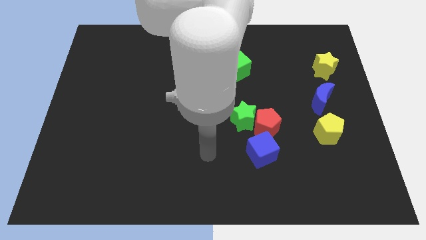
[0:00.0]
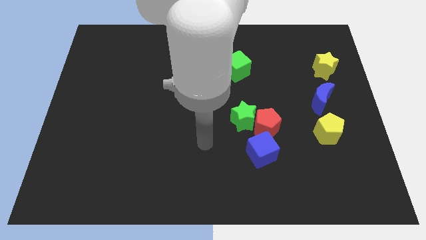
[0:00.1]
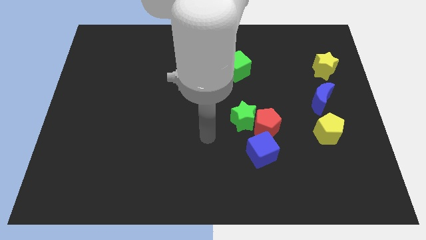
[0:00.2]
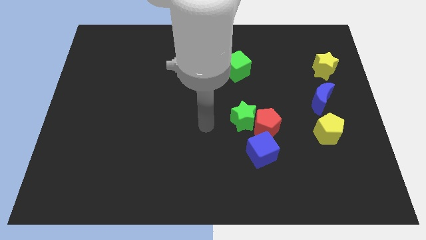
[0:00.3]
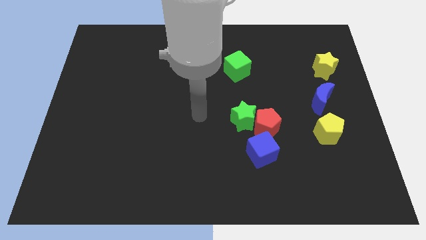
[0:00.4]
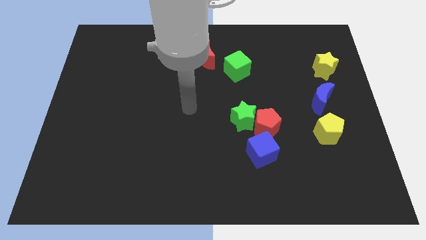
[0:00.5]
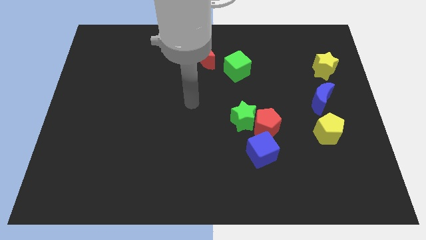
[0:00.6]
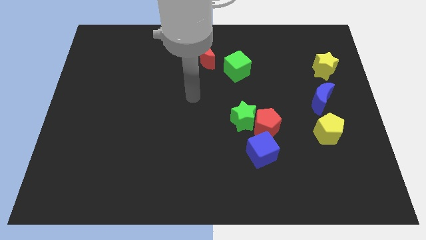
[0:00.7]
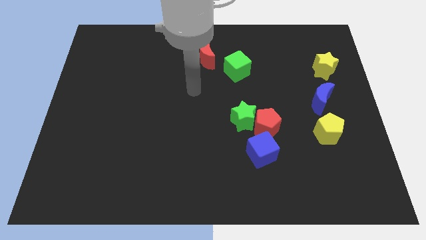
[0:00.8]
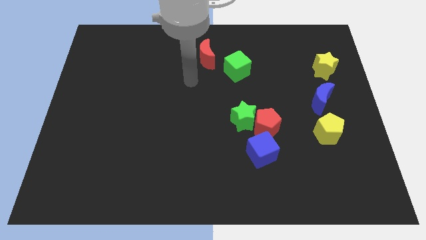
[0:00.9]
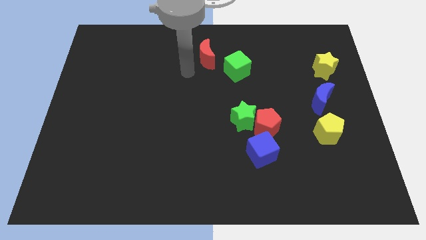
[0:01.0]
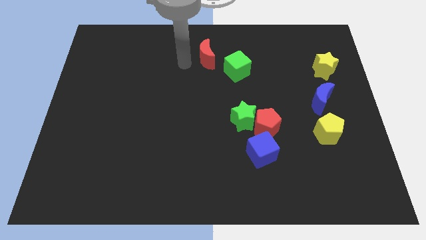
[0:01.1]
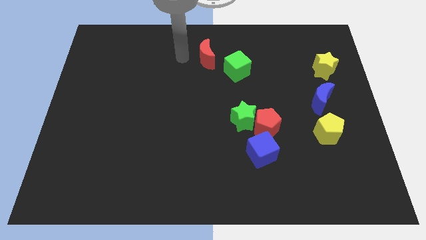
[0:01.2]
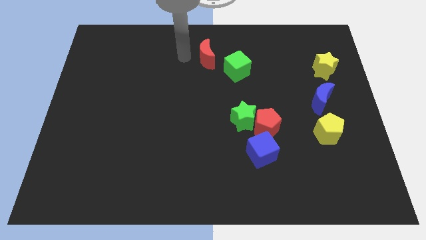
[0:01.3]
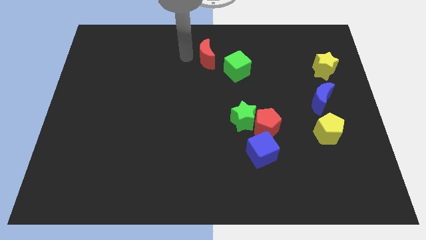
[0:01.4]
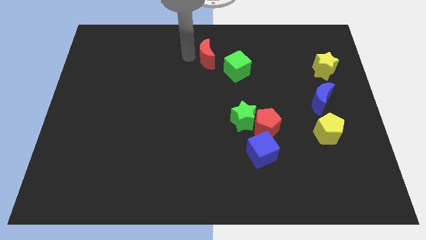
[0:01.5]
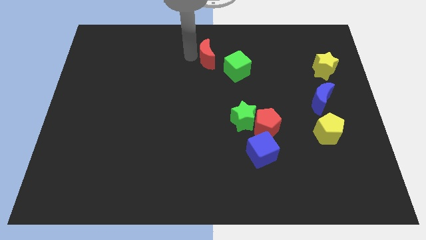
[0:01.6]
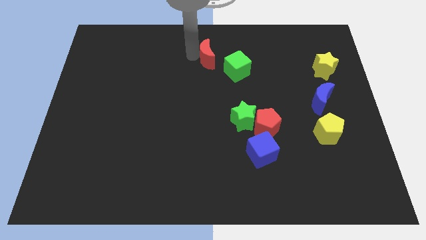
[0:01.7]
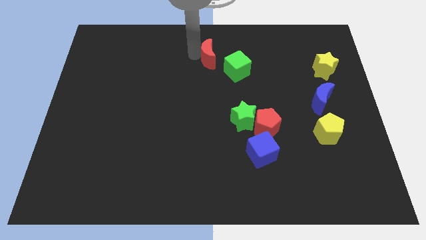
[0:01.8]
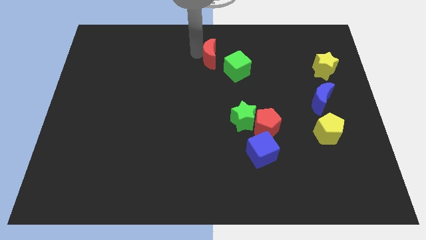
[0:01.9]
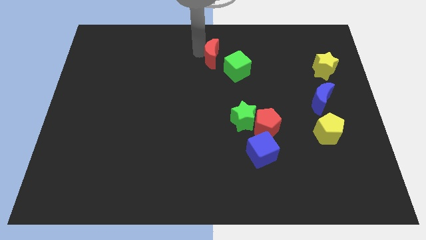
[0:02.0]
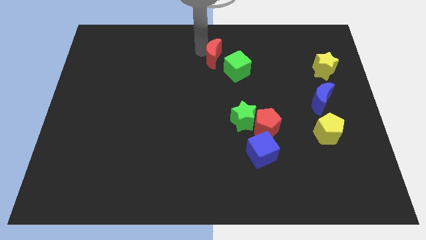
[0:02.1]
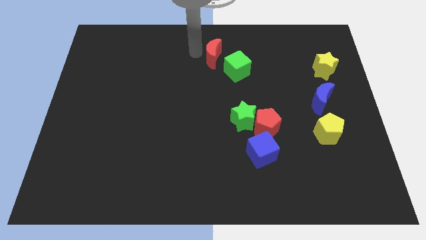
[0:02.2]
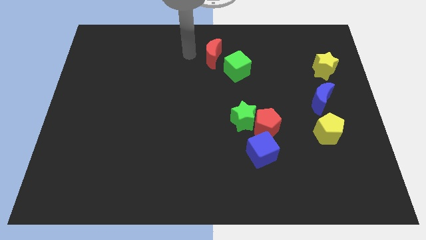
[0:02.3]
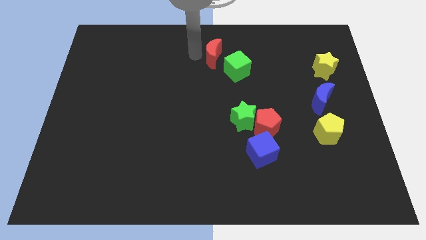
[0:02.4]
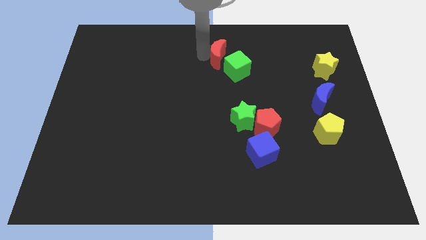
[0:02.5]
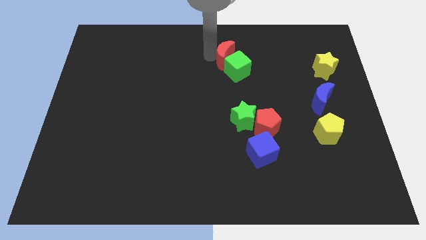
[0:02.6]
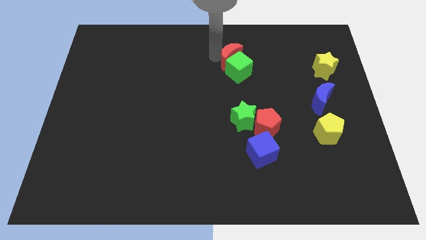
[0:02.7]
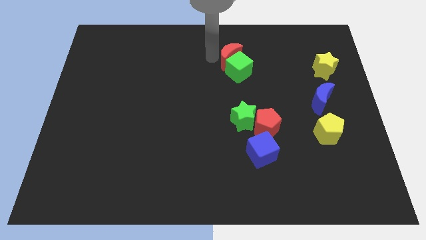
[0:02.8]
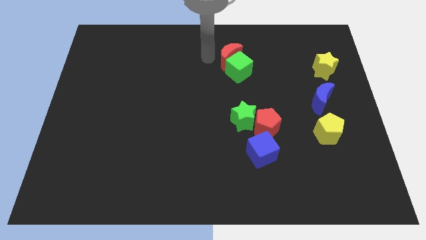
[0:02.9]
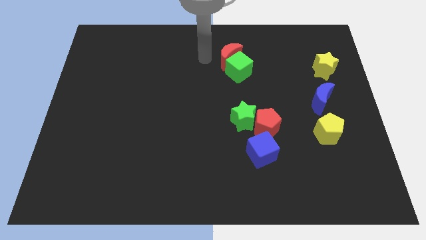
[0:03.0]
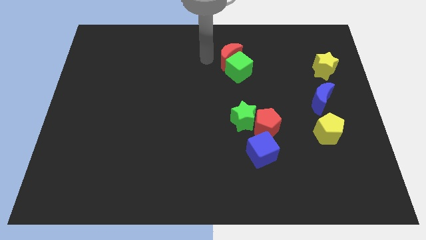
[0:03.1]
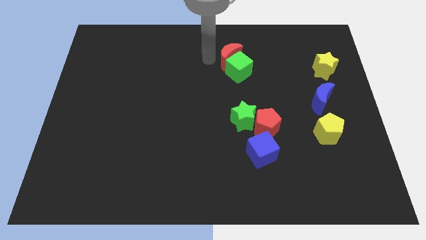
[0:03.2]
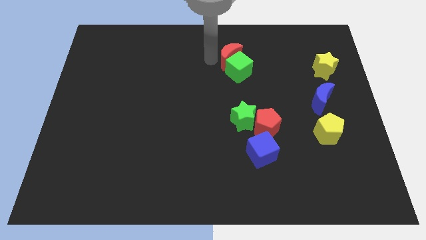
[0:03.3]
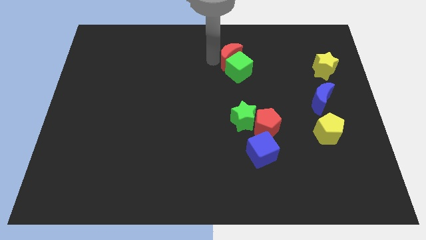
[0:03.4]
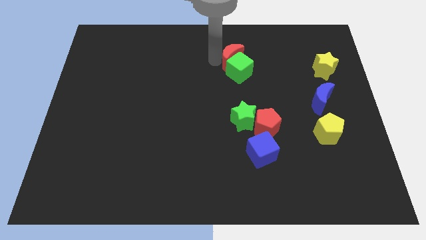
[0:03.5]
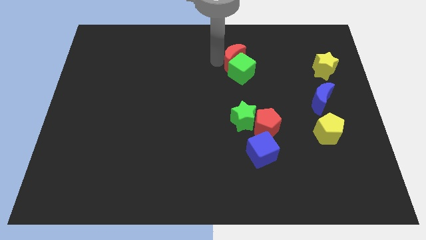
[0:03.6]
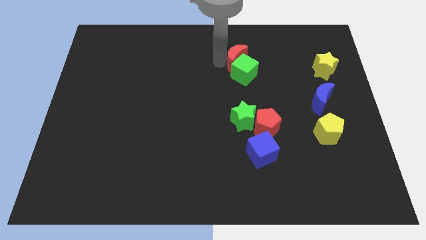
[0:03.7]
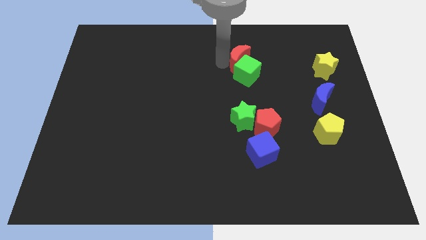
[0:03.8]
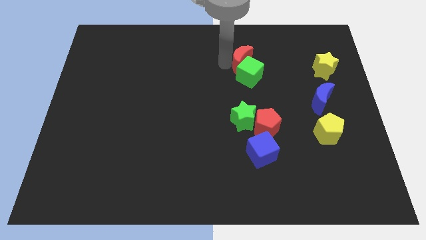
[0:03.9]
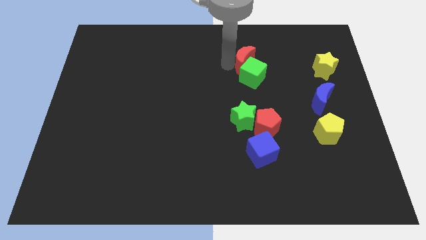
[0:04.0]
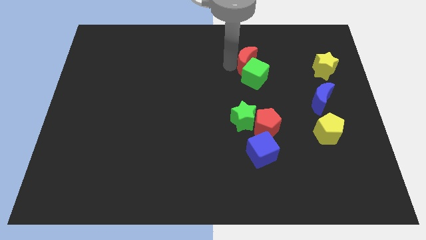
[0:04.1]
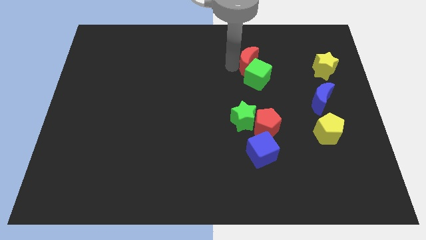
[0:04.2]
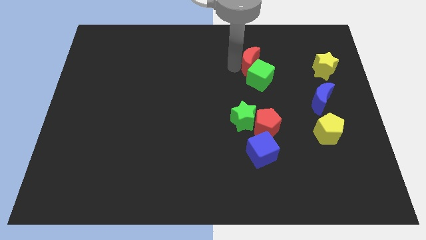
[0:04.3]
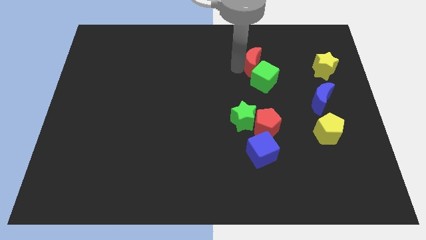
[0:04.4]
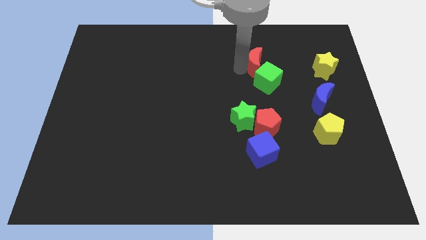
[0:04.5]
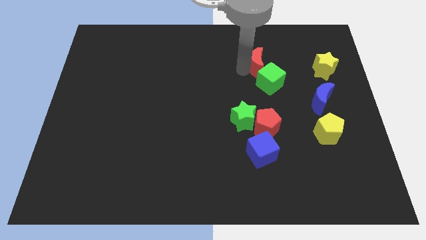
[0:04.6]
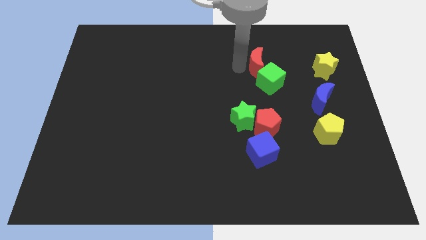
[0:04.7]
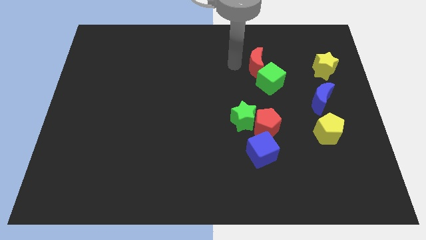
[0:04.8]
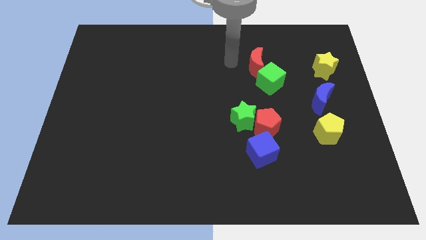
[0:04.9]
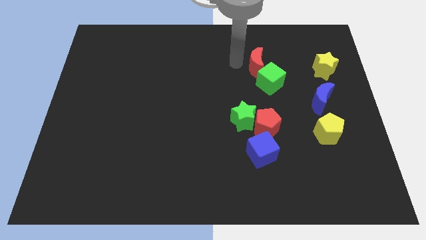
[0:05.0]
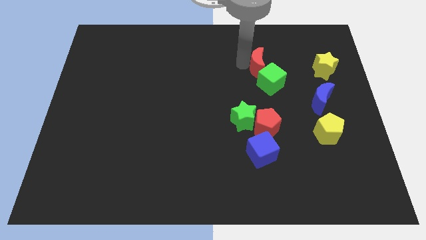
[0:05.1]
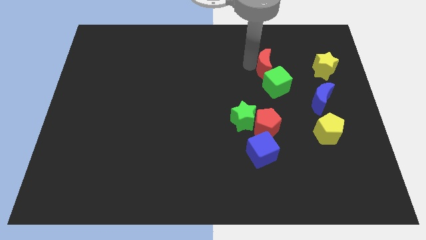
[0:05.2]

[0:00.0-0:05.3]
slide the red moon just left of the yellow star

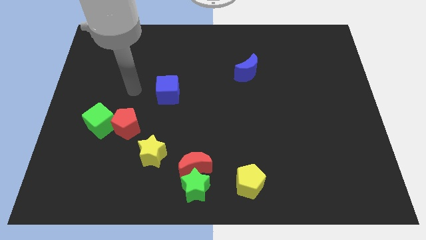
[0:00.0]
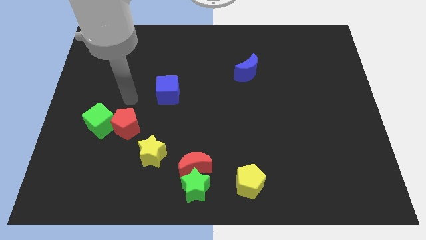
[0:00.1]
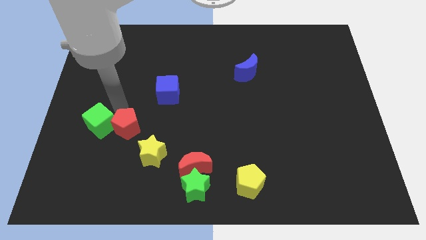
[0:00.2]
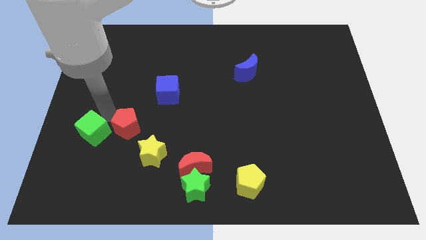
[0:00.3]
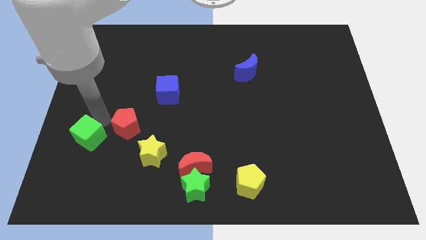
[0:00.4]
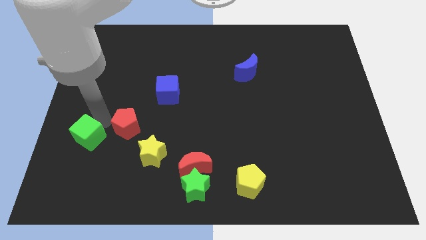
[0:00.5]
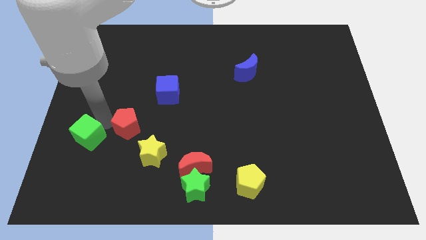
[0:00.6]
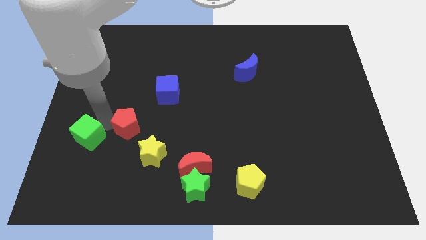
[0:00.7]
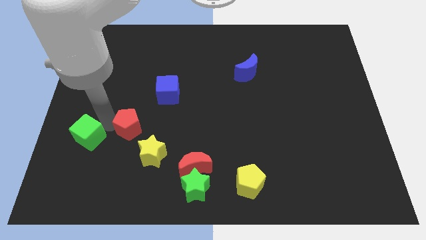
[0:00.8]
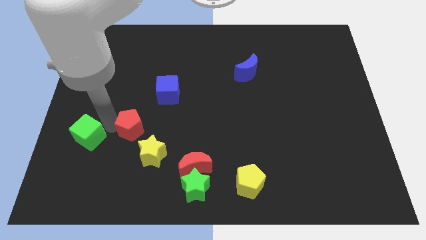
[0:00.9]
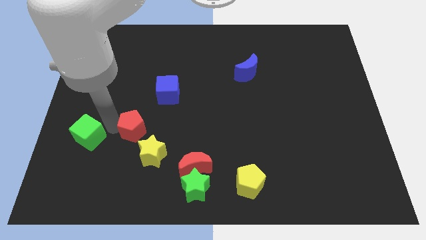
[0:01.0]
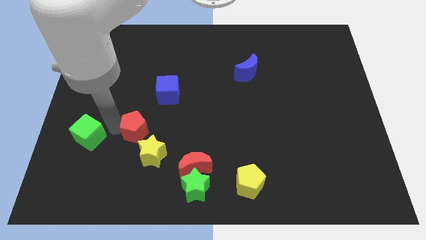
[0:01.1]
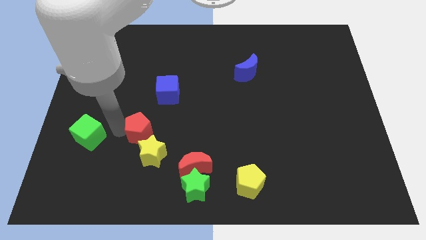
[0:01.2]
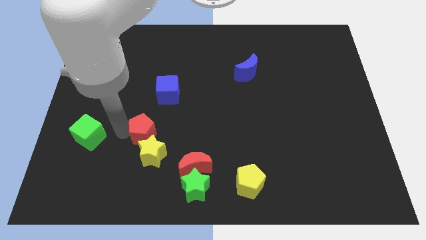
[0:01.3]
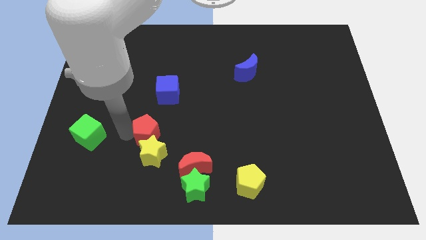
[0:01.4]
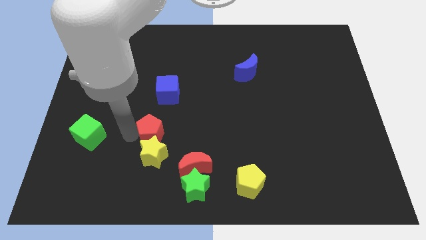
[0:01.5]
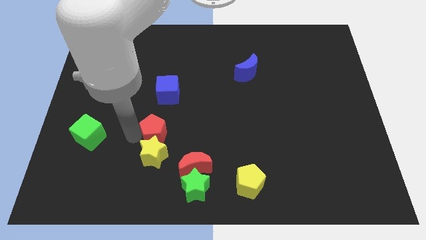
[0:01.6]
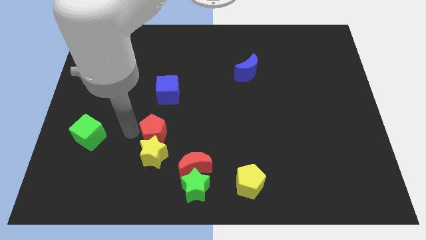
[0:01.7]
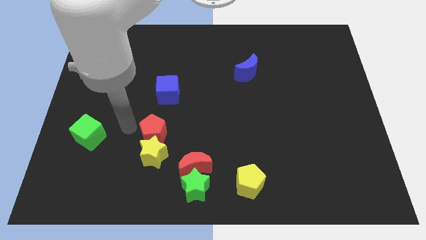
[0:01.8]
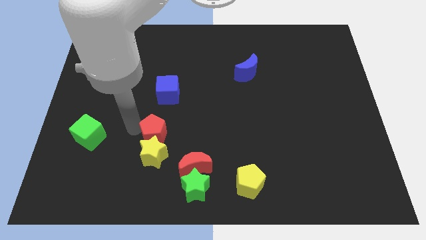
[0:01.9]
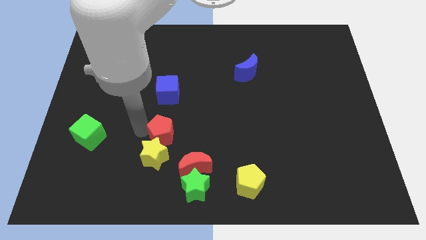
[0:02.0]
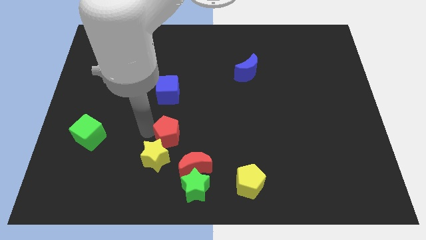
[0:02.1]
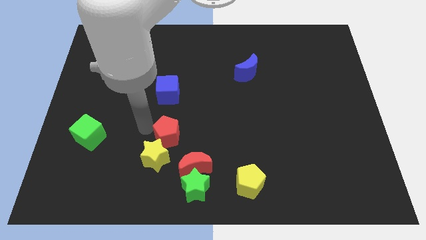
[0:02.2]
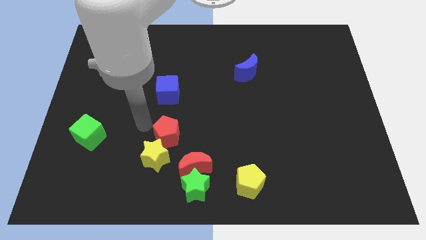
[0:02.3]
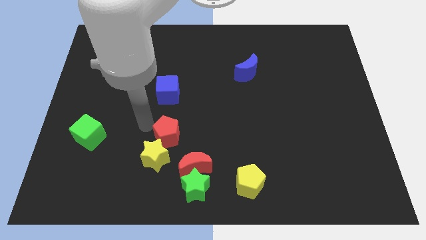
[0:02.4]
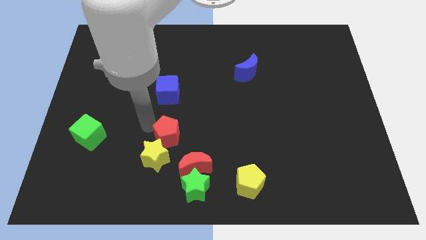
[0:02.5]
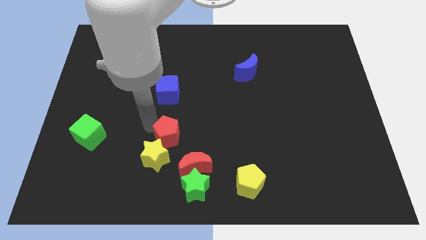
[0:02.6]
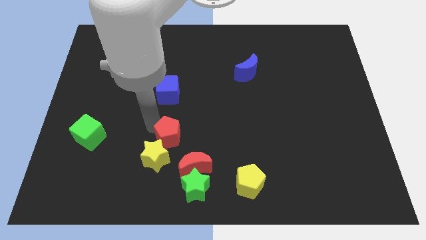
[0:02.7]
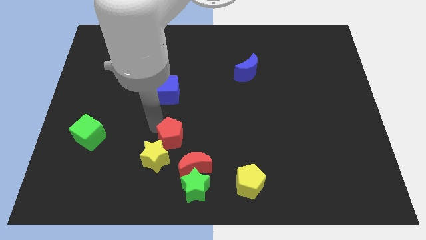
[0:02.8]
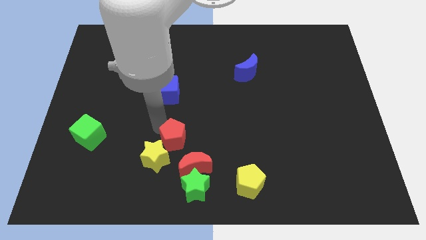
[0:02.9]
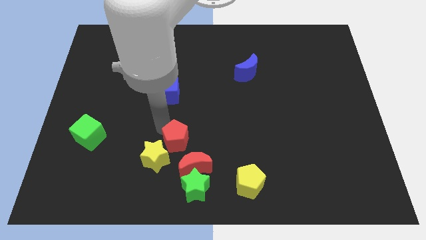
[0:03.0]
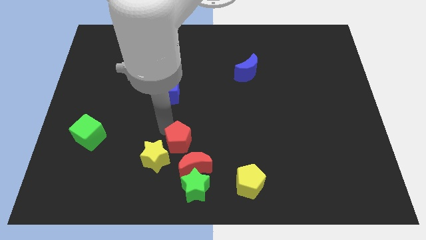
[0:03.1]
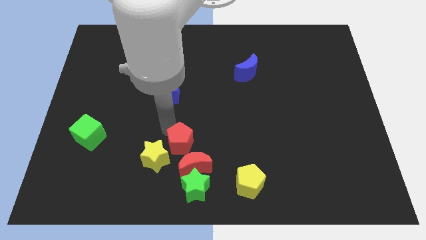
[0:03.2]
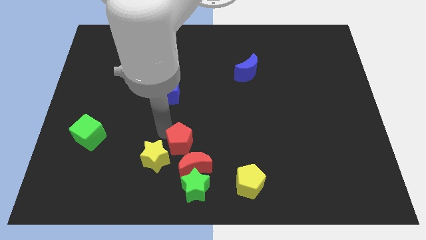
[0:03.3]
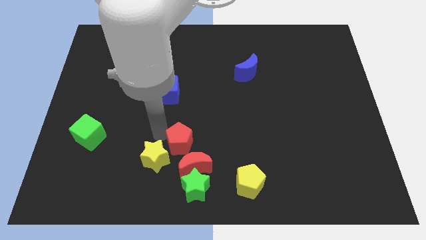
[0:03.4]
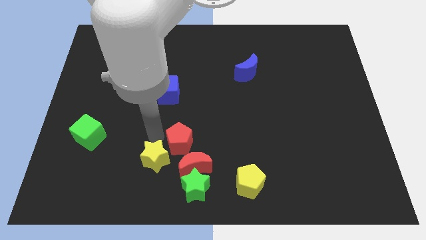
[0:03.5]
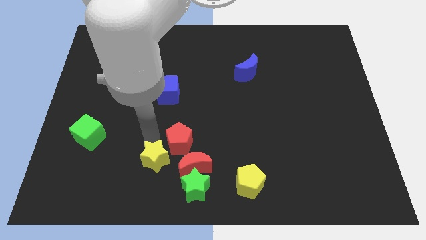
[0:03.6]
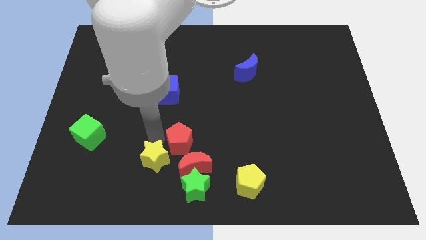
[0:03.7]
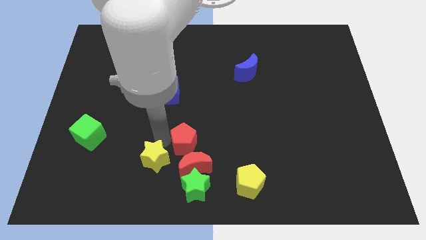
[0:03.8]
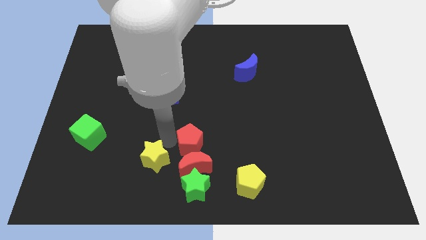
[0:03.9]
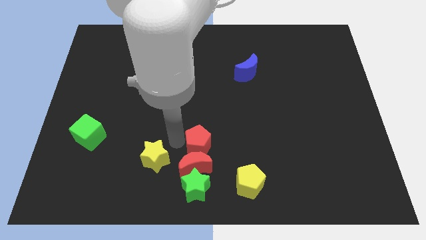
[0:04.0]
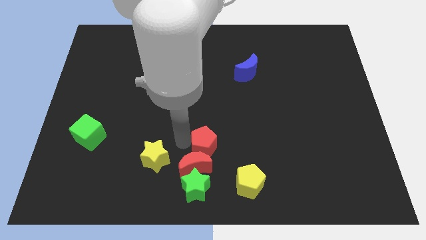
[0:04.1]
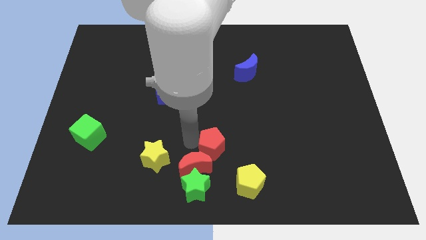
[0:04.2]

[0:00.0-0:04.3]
put the red pentagon diagonally up and to the right of the green star
